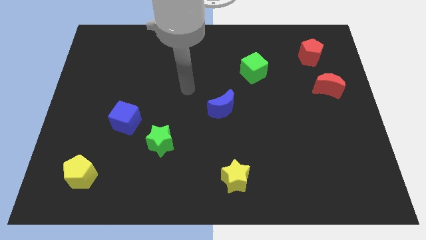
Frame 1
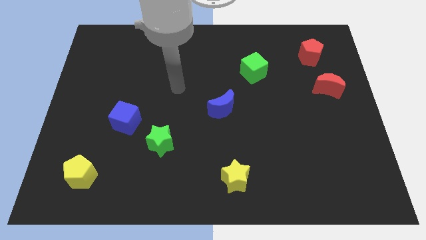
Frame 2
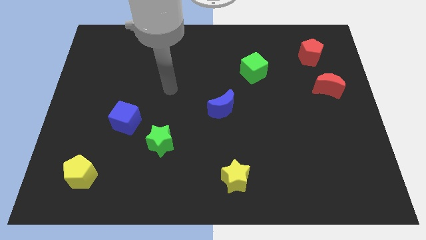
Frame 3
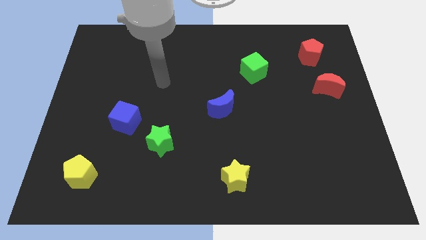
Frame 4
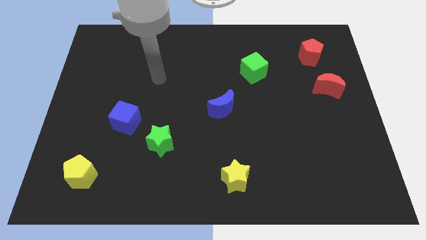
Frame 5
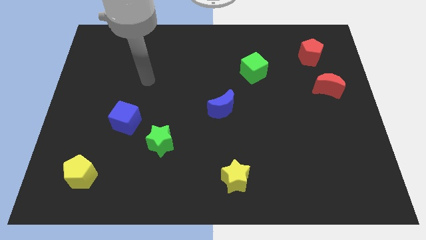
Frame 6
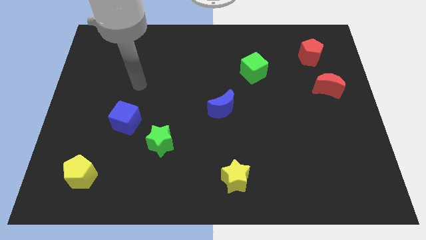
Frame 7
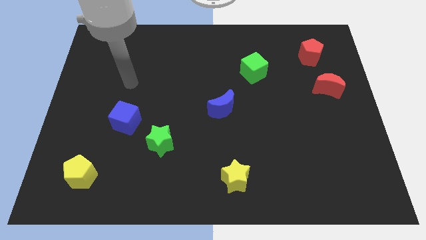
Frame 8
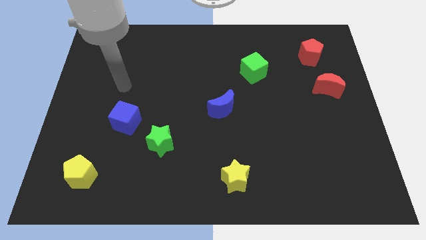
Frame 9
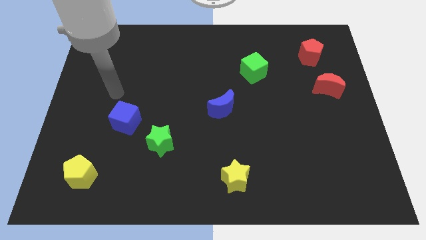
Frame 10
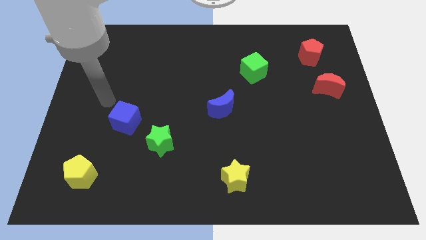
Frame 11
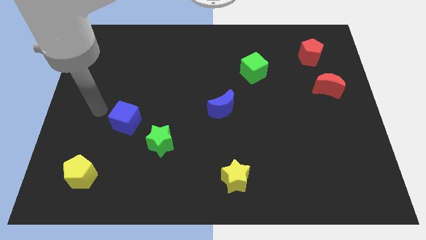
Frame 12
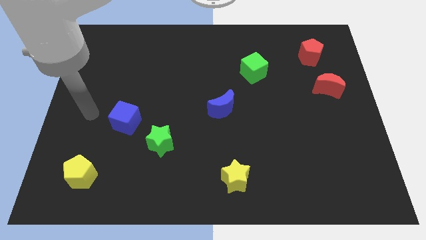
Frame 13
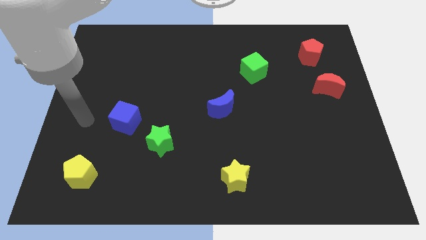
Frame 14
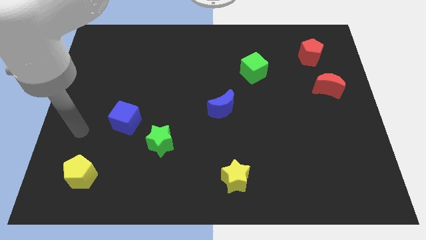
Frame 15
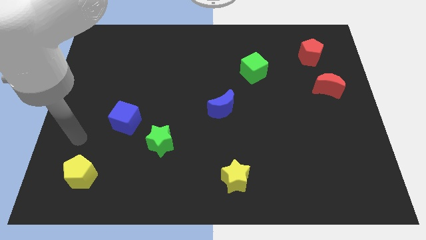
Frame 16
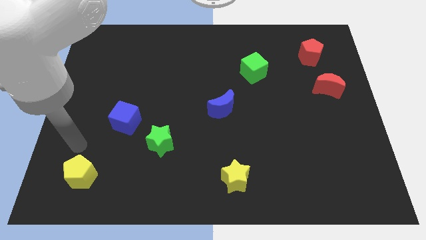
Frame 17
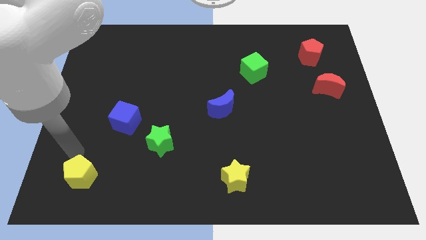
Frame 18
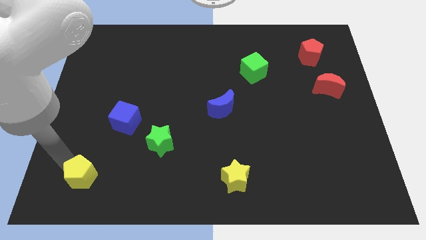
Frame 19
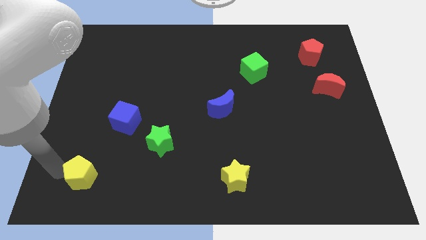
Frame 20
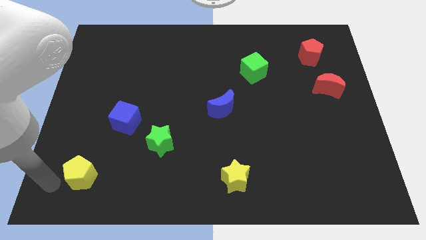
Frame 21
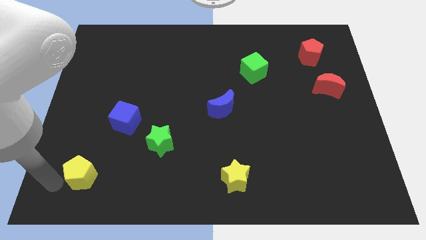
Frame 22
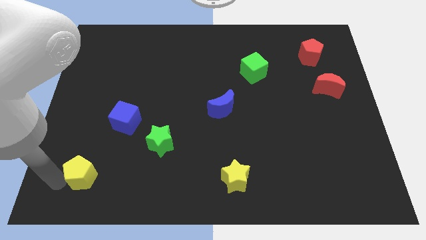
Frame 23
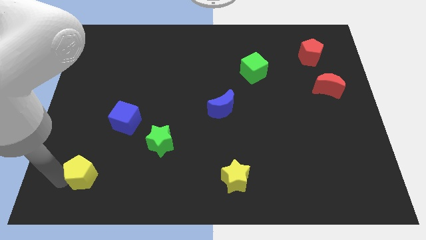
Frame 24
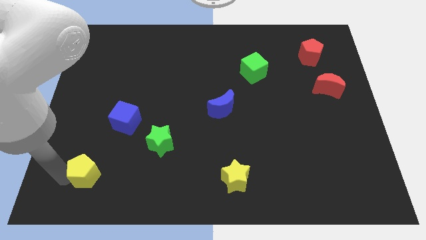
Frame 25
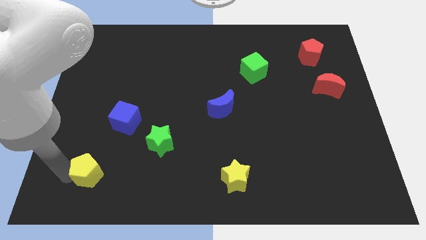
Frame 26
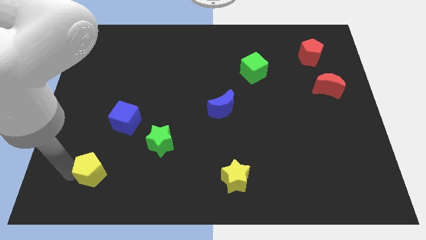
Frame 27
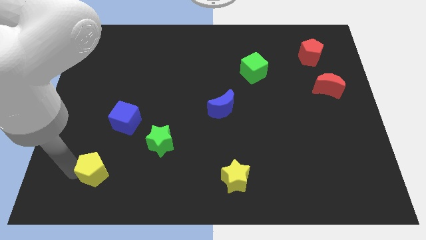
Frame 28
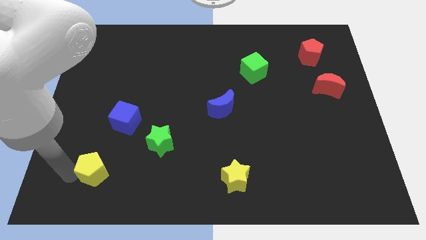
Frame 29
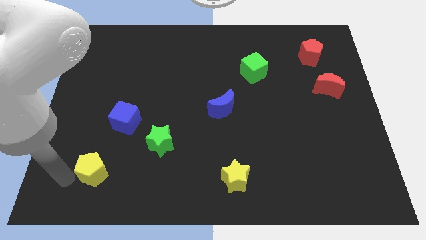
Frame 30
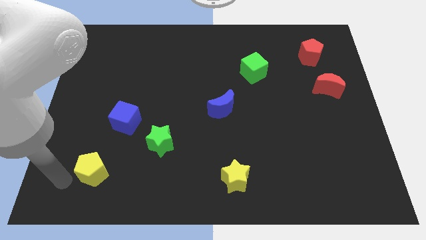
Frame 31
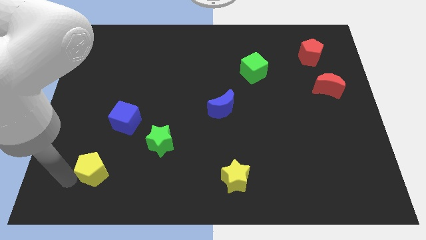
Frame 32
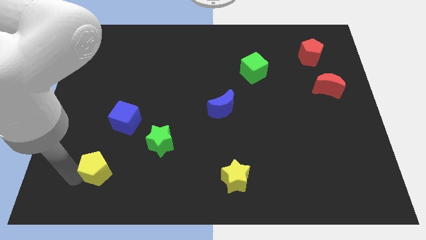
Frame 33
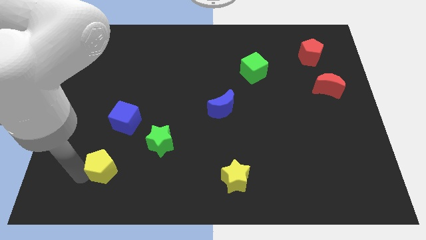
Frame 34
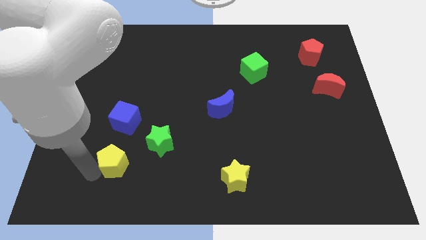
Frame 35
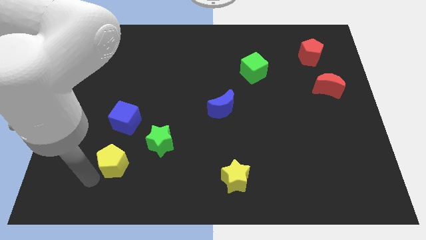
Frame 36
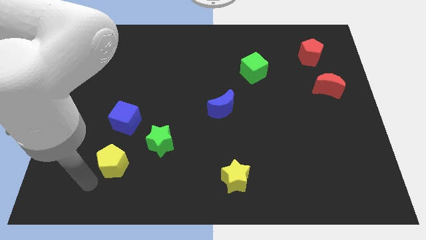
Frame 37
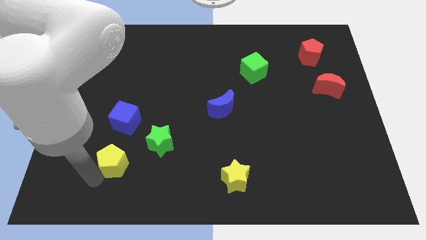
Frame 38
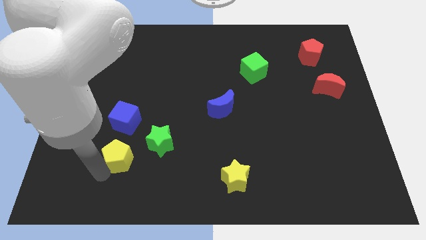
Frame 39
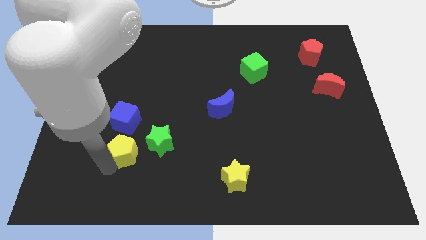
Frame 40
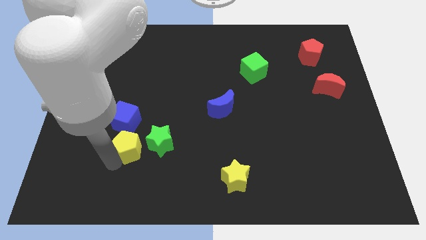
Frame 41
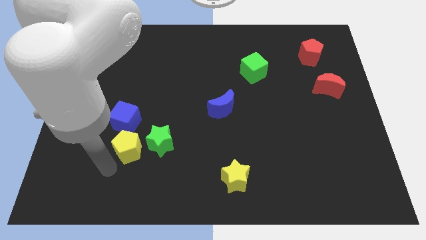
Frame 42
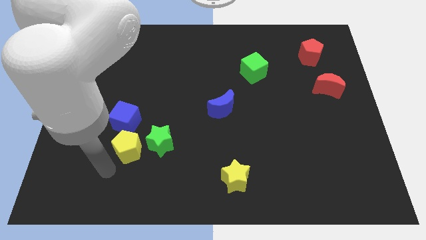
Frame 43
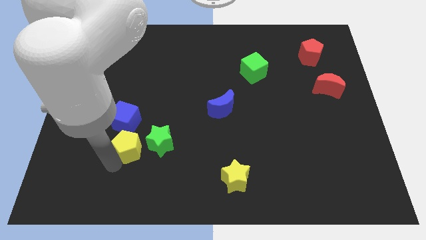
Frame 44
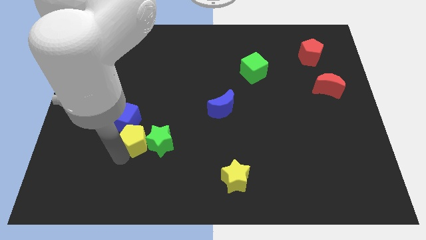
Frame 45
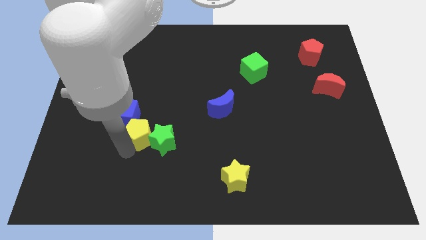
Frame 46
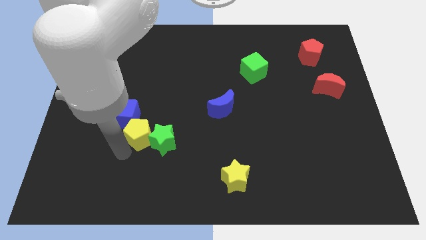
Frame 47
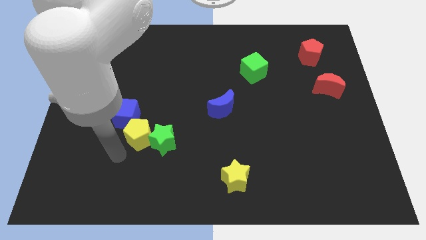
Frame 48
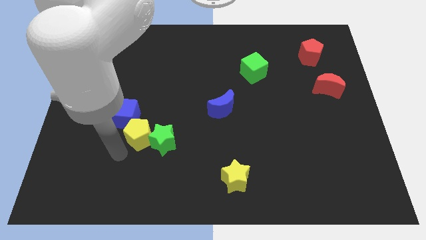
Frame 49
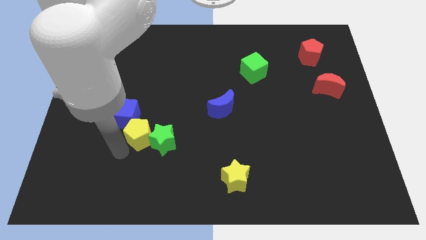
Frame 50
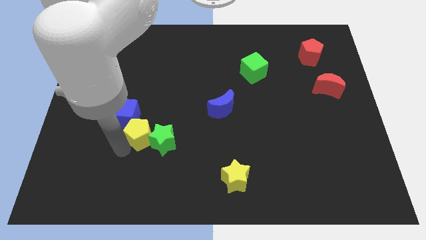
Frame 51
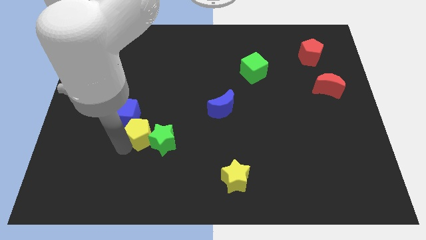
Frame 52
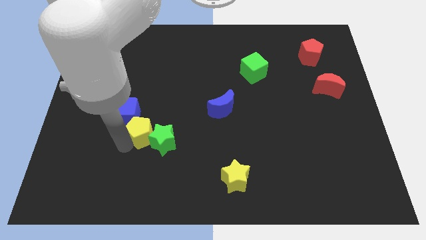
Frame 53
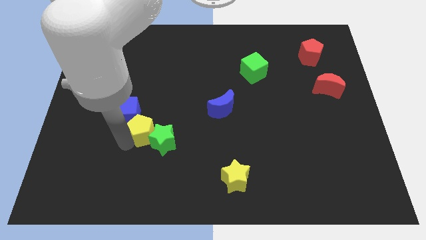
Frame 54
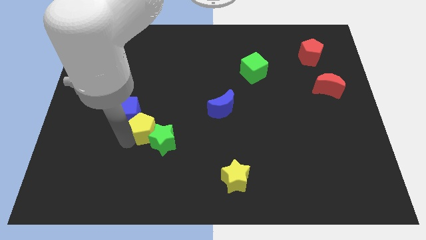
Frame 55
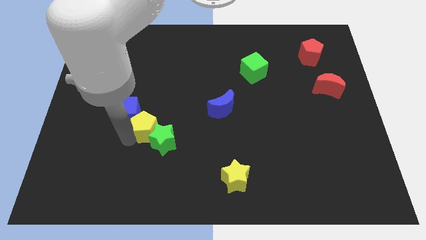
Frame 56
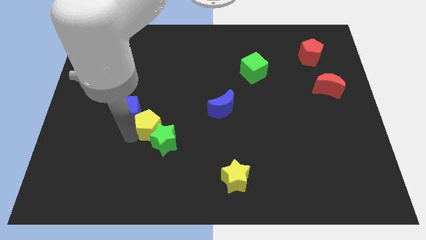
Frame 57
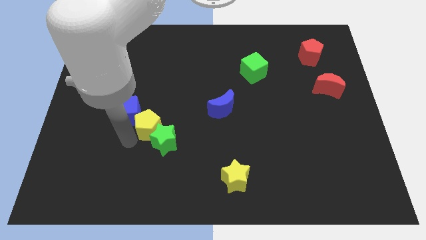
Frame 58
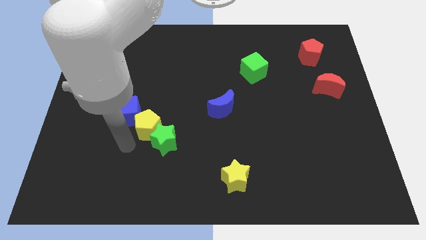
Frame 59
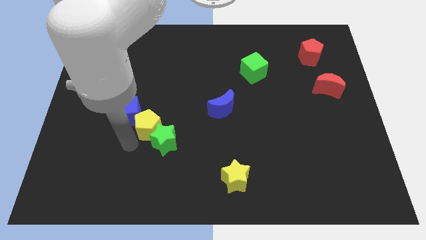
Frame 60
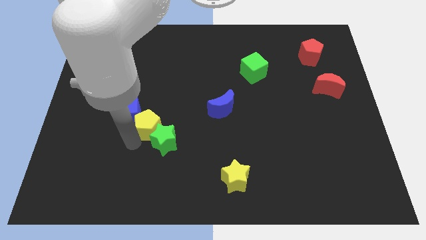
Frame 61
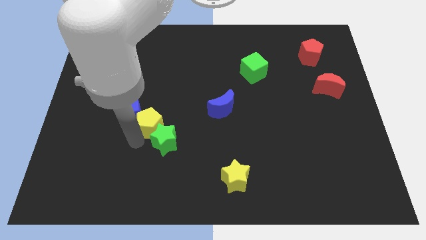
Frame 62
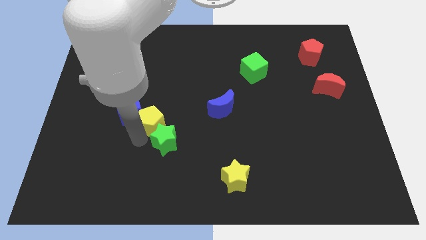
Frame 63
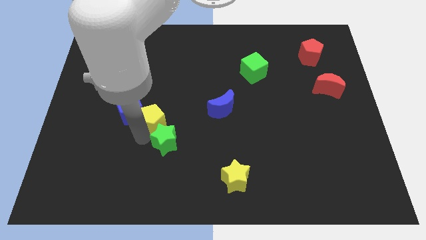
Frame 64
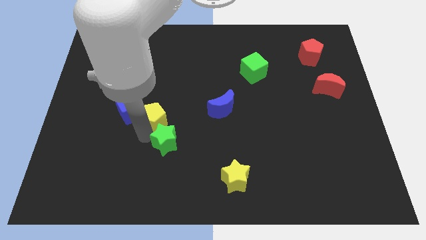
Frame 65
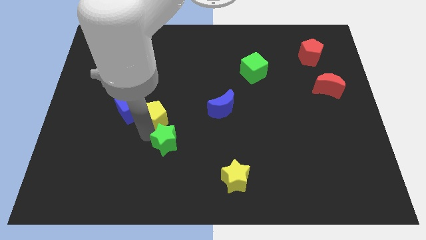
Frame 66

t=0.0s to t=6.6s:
move the yellow pentagon diagonally up and right

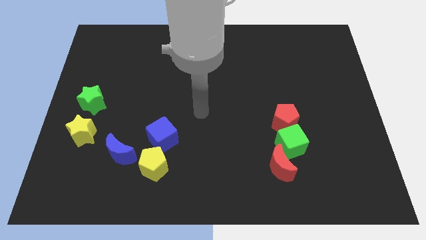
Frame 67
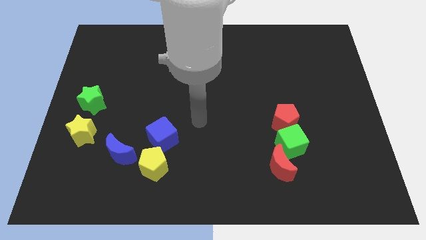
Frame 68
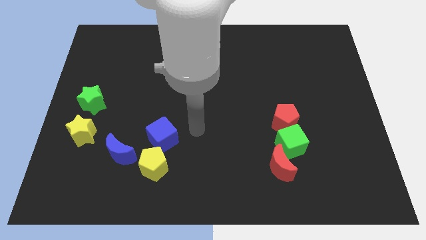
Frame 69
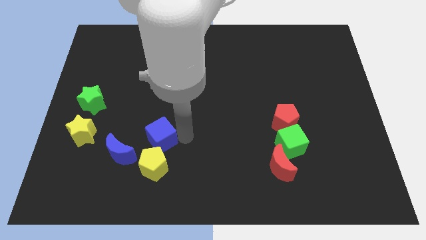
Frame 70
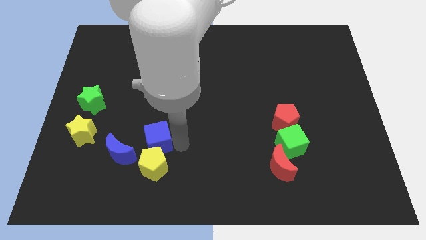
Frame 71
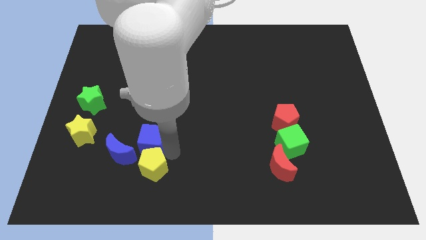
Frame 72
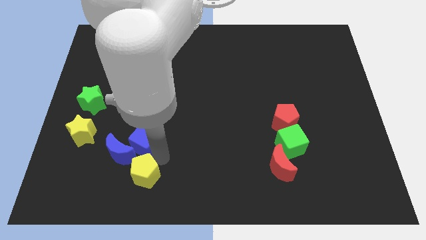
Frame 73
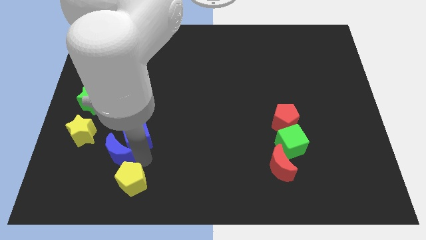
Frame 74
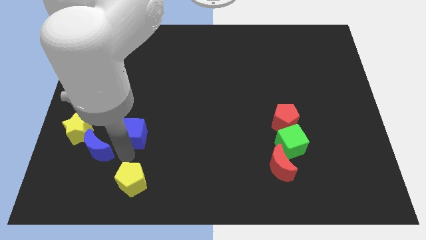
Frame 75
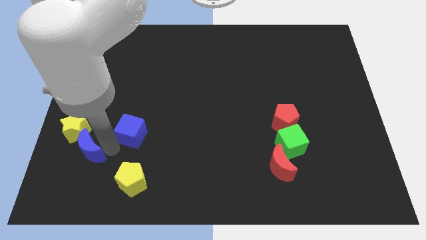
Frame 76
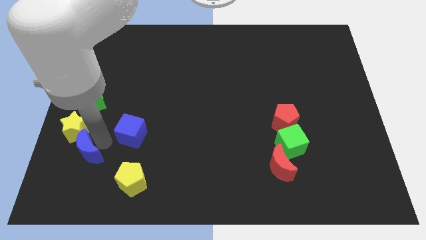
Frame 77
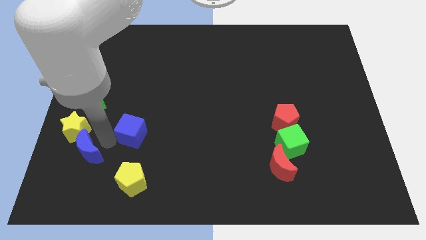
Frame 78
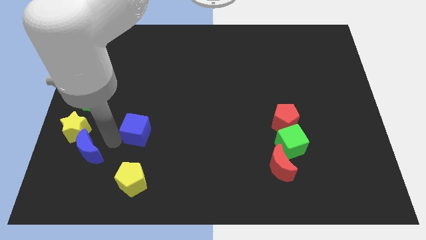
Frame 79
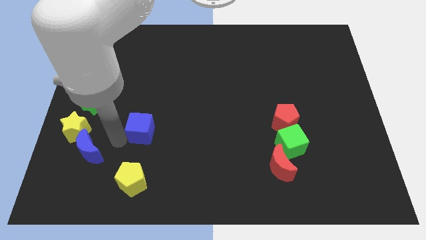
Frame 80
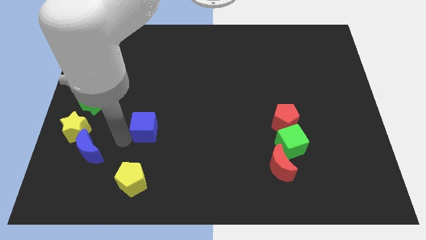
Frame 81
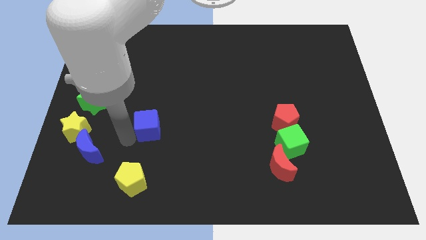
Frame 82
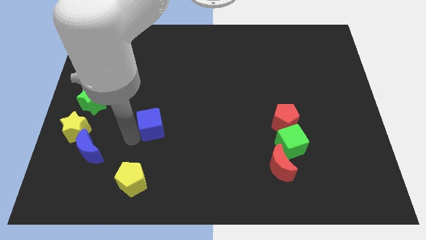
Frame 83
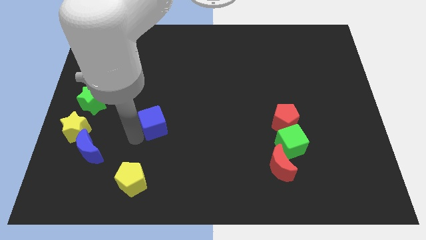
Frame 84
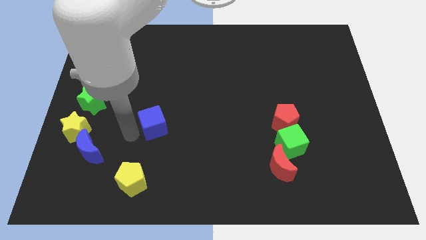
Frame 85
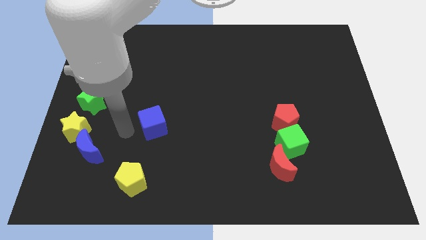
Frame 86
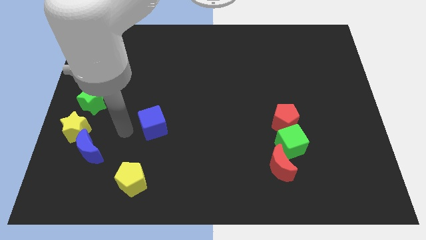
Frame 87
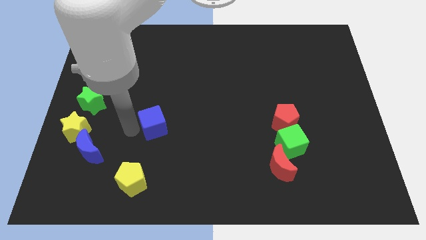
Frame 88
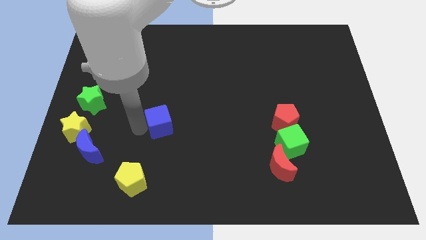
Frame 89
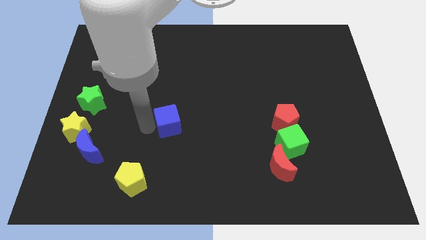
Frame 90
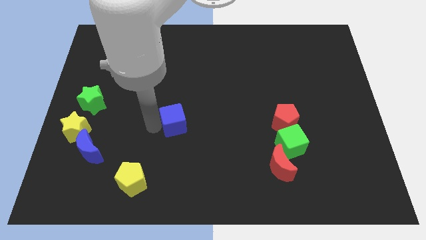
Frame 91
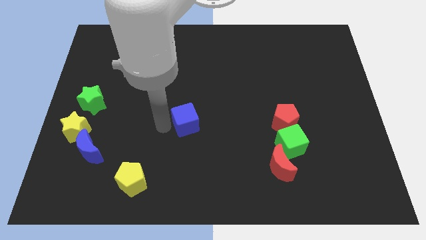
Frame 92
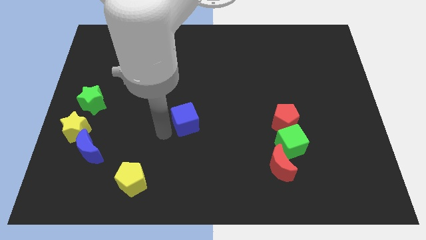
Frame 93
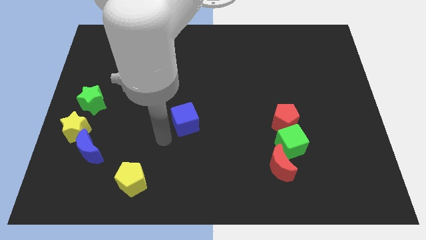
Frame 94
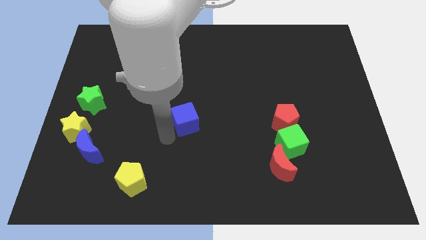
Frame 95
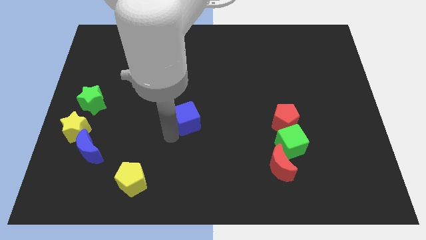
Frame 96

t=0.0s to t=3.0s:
slide the blue cube slightly upwards and right
